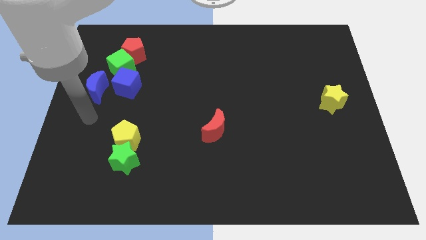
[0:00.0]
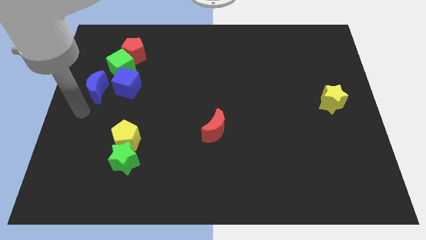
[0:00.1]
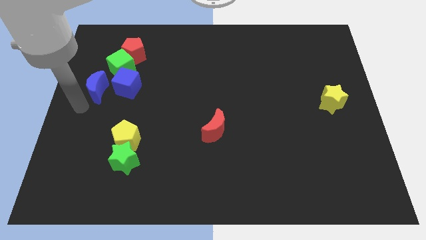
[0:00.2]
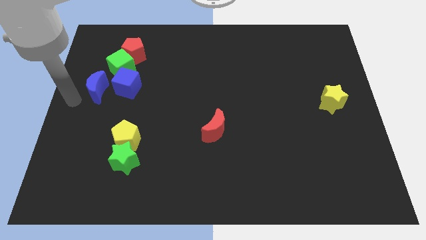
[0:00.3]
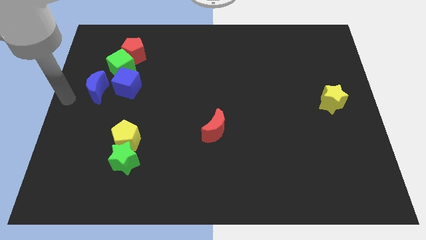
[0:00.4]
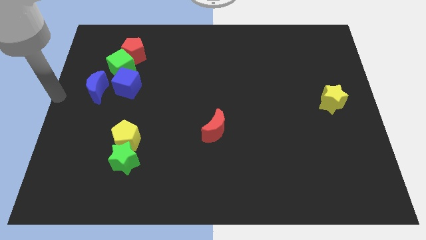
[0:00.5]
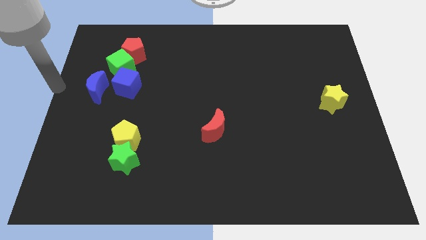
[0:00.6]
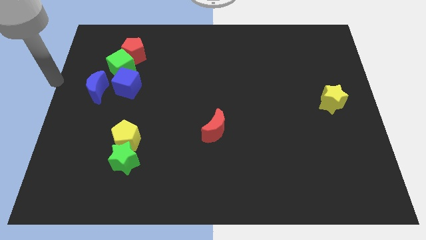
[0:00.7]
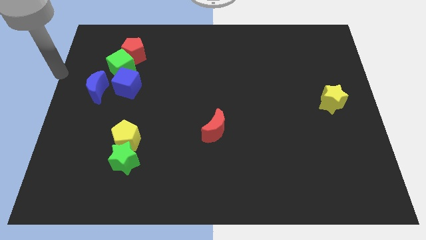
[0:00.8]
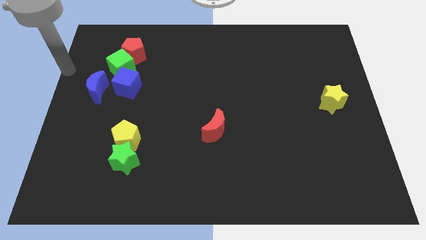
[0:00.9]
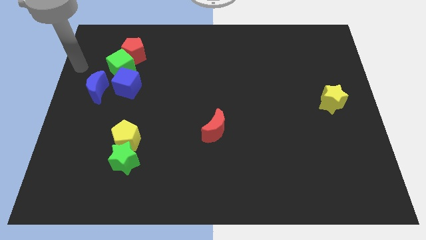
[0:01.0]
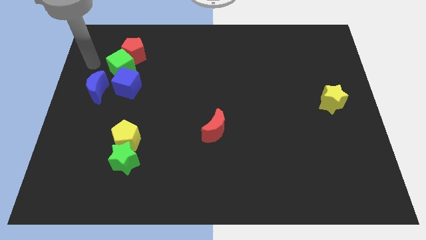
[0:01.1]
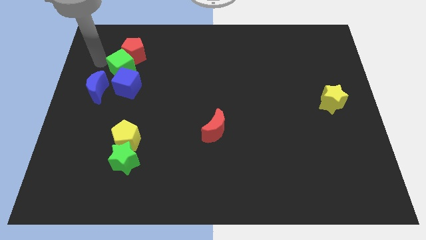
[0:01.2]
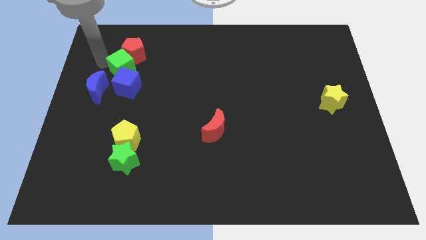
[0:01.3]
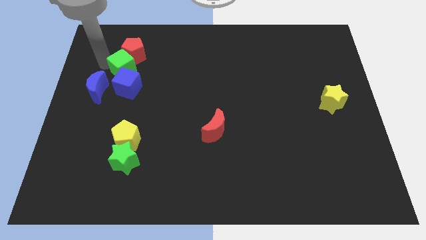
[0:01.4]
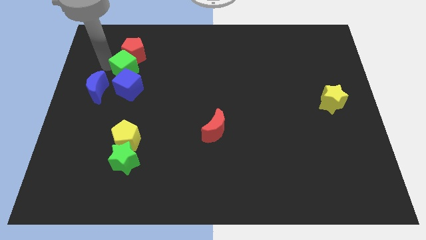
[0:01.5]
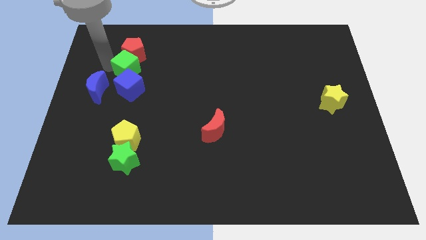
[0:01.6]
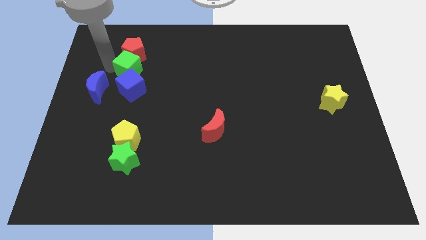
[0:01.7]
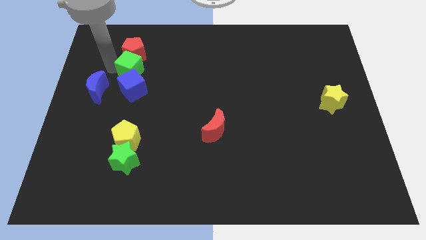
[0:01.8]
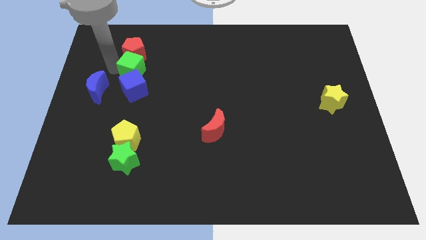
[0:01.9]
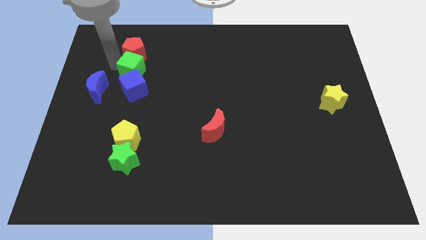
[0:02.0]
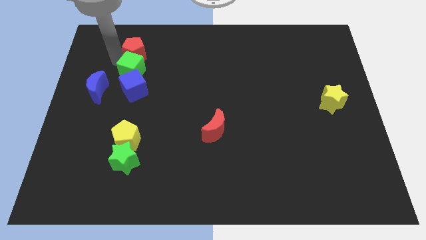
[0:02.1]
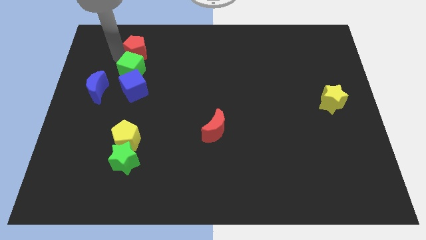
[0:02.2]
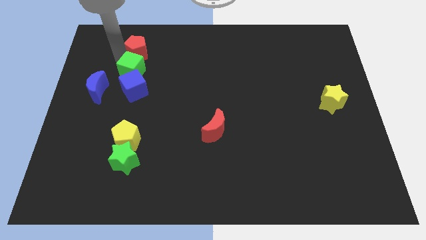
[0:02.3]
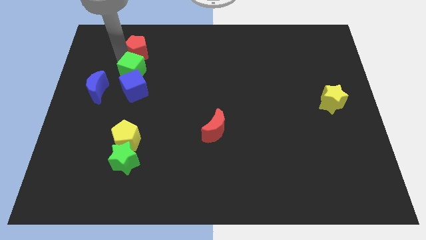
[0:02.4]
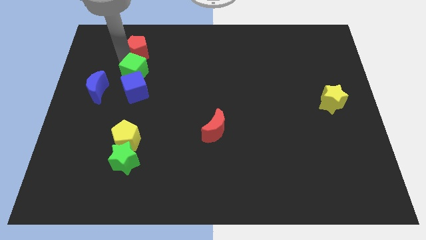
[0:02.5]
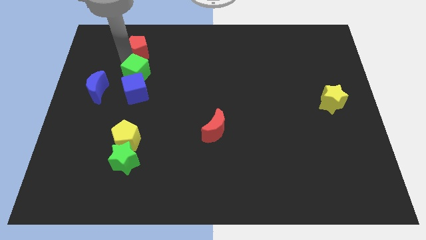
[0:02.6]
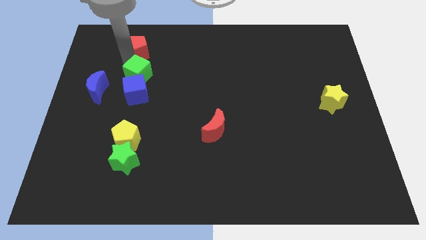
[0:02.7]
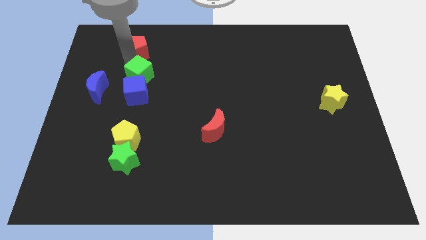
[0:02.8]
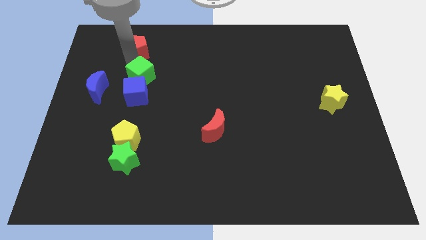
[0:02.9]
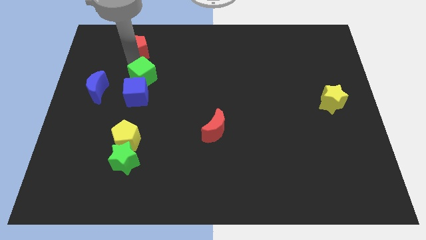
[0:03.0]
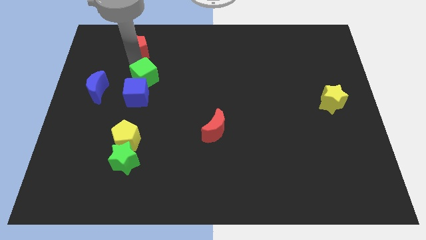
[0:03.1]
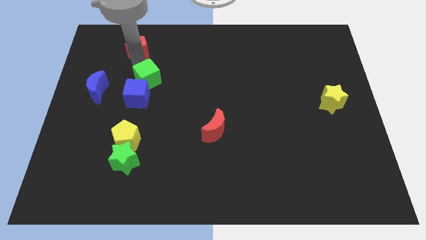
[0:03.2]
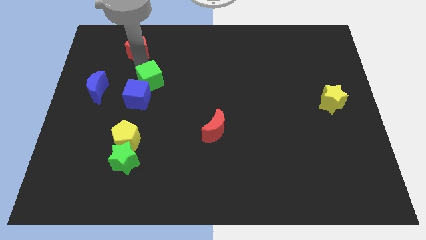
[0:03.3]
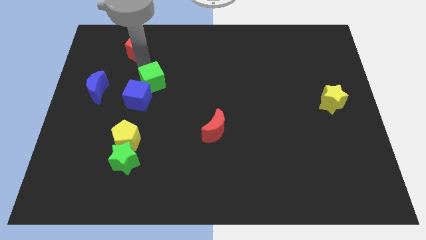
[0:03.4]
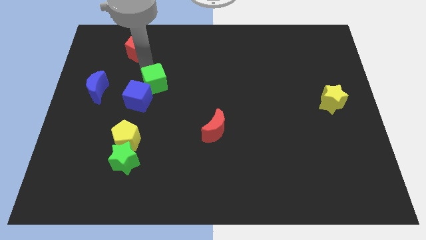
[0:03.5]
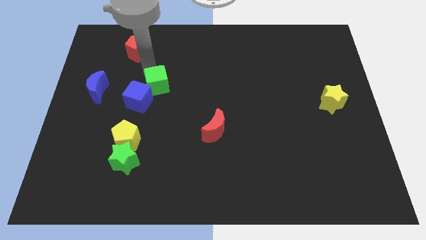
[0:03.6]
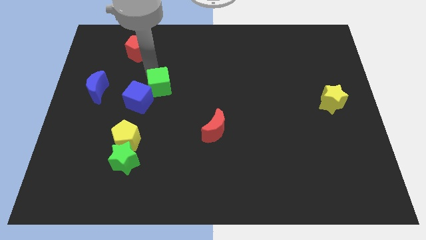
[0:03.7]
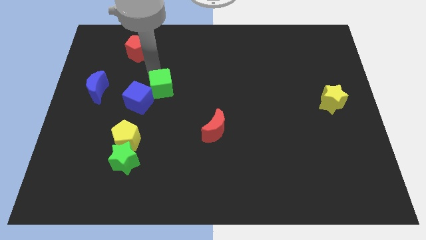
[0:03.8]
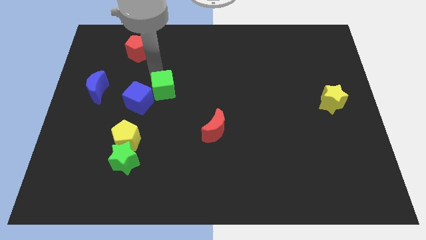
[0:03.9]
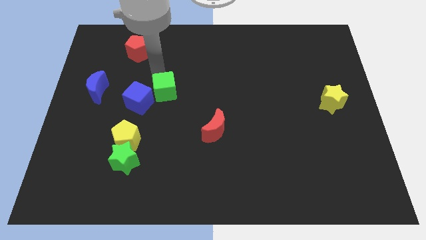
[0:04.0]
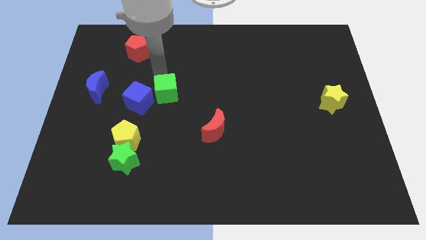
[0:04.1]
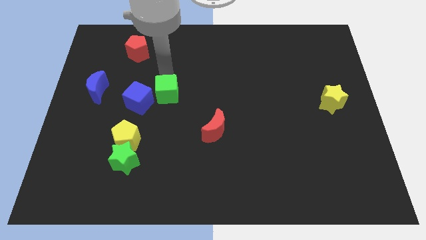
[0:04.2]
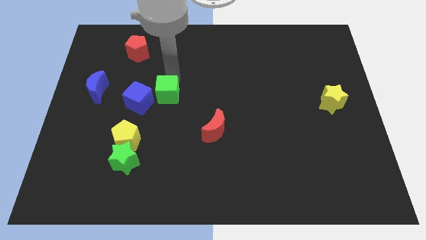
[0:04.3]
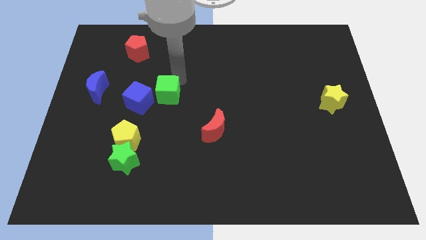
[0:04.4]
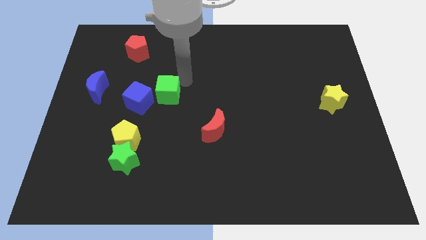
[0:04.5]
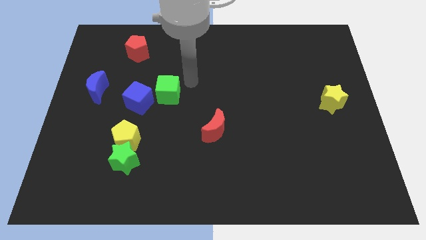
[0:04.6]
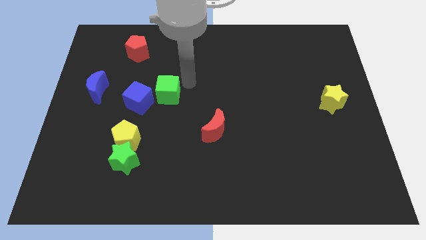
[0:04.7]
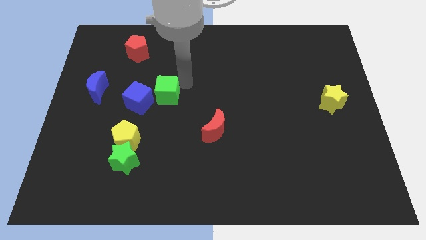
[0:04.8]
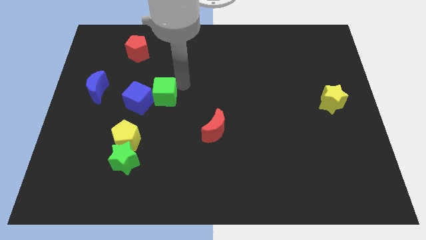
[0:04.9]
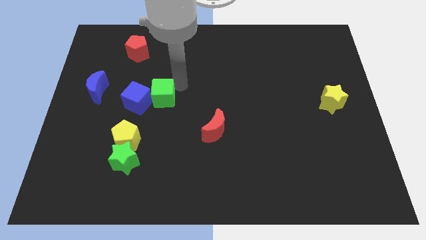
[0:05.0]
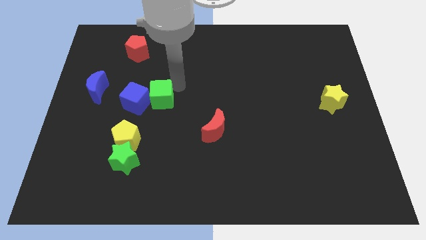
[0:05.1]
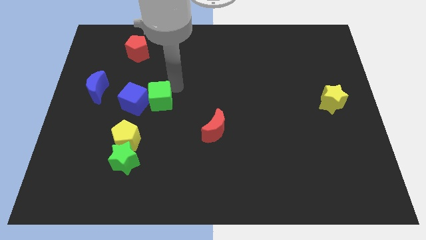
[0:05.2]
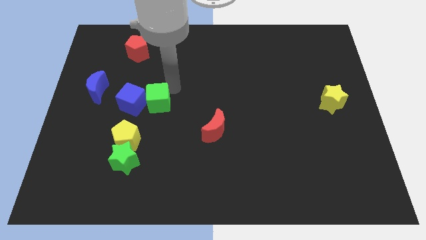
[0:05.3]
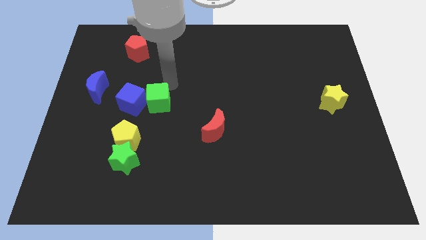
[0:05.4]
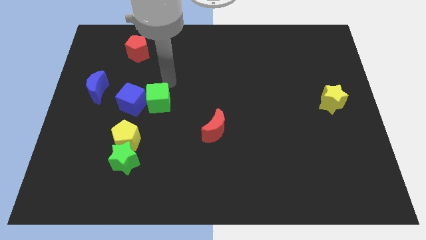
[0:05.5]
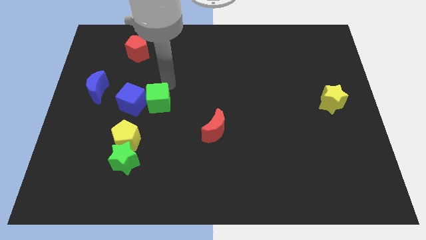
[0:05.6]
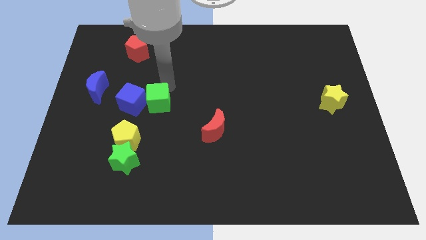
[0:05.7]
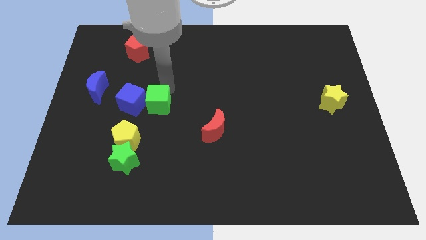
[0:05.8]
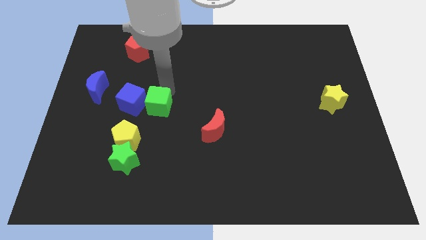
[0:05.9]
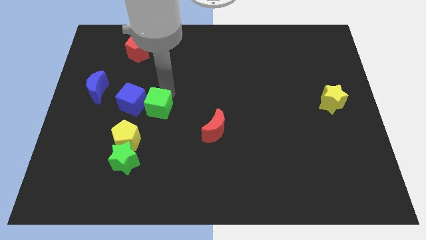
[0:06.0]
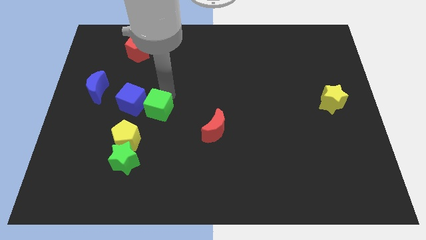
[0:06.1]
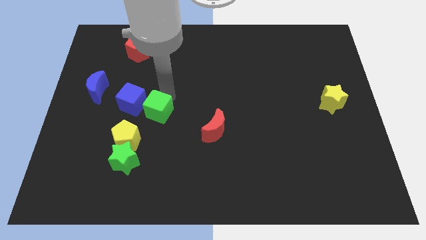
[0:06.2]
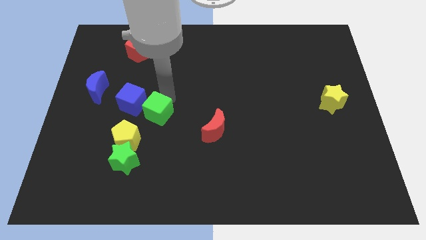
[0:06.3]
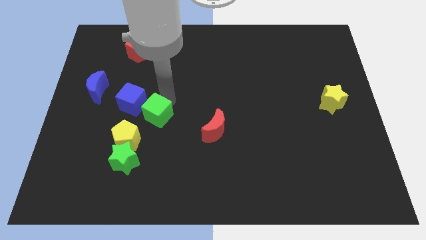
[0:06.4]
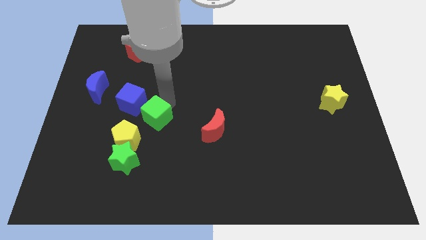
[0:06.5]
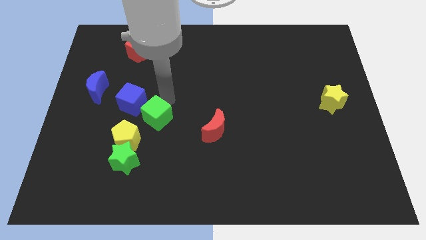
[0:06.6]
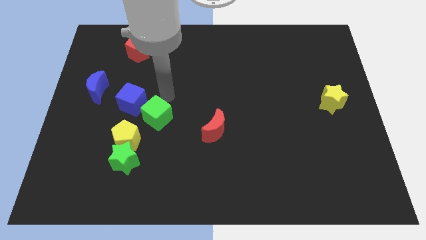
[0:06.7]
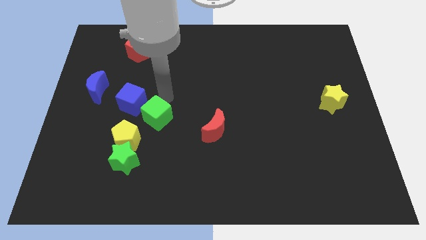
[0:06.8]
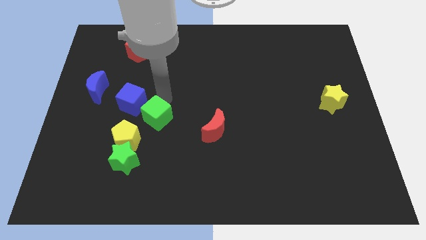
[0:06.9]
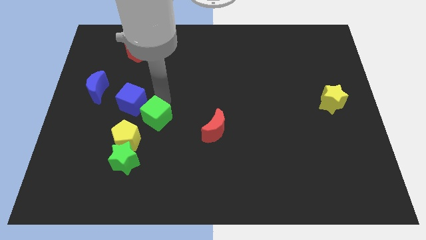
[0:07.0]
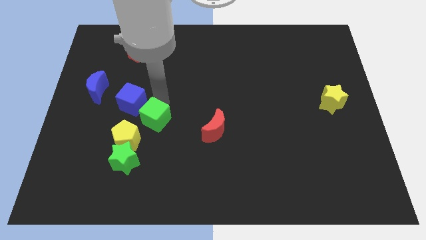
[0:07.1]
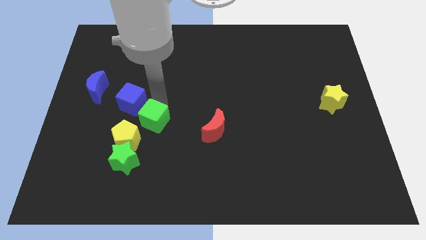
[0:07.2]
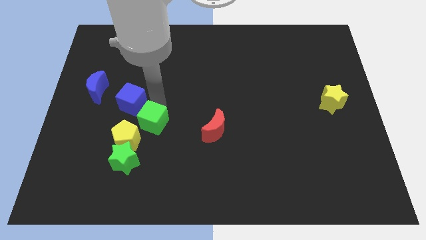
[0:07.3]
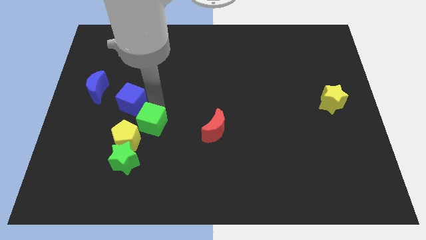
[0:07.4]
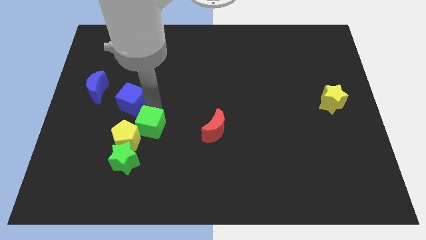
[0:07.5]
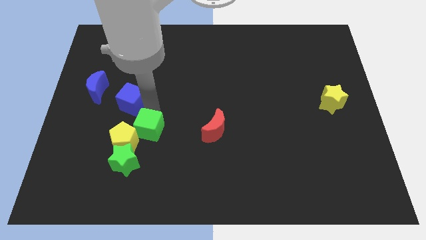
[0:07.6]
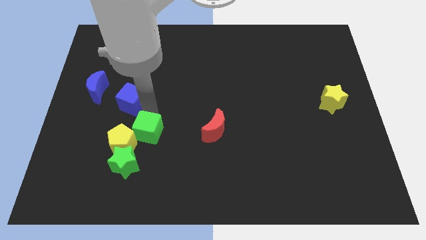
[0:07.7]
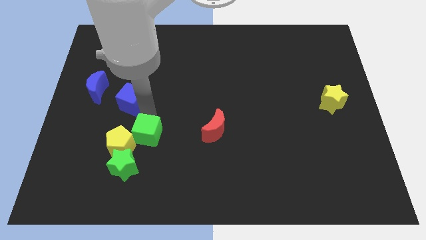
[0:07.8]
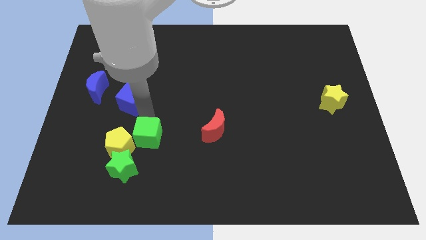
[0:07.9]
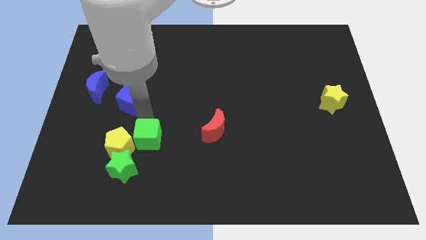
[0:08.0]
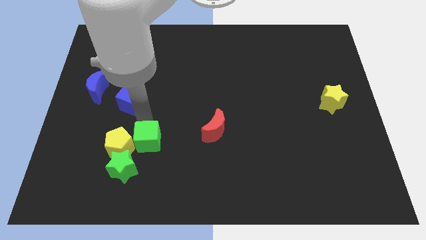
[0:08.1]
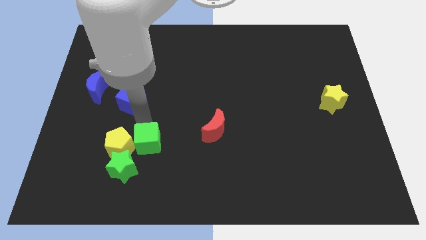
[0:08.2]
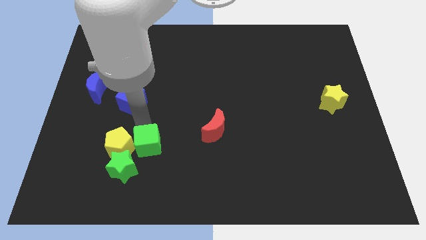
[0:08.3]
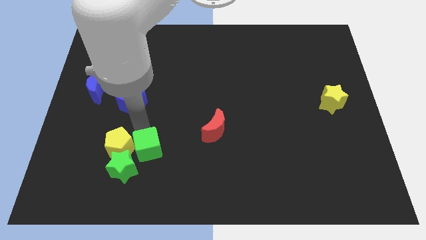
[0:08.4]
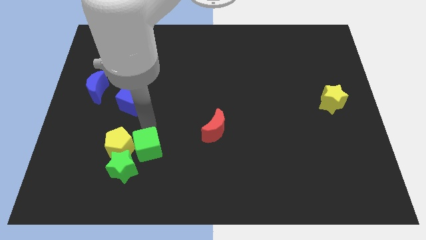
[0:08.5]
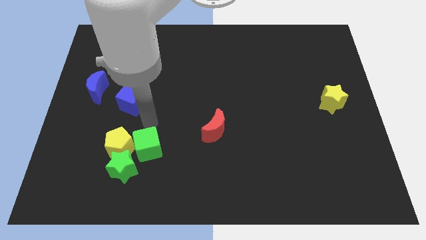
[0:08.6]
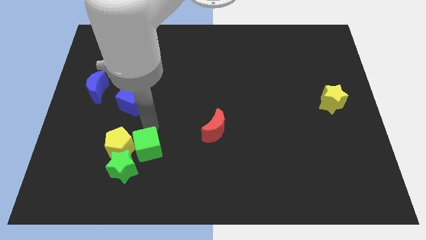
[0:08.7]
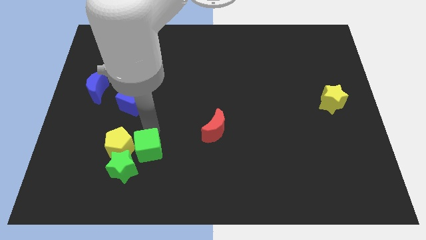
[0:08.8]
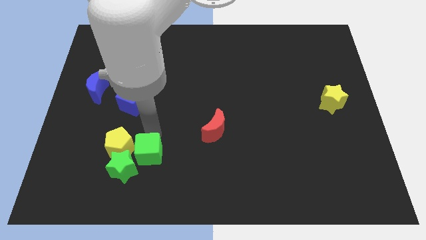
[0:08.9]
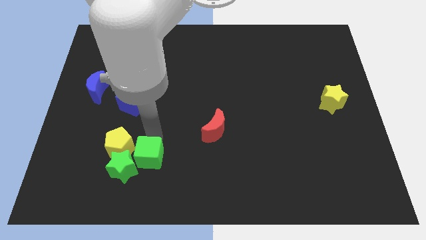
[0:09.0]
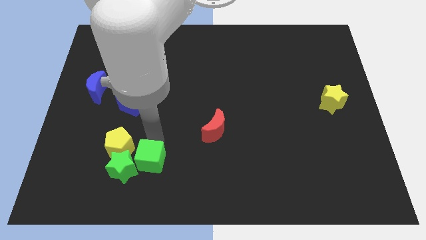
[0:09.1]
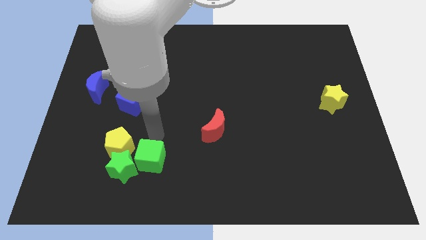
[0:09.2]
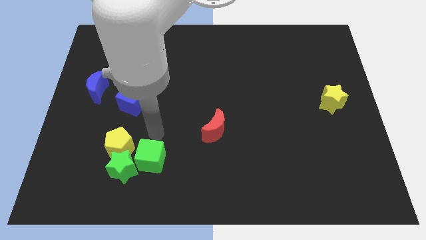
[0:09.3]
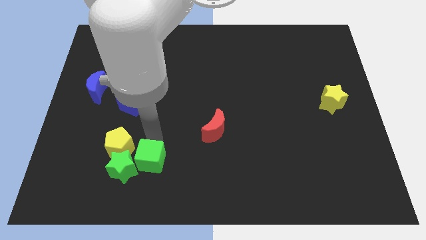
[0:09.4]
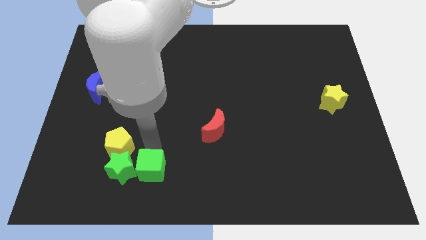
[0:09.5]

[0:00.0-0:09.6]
push the green cube to the bottom right side of the green star
